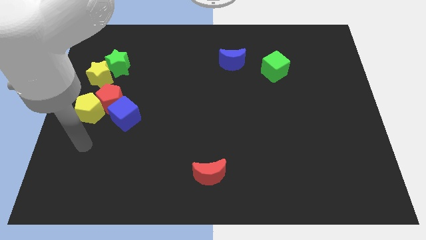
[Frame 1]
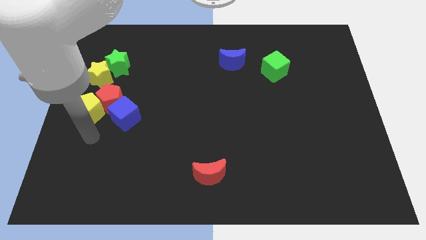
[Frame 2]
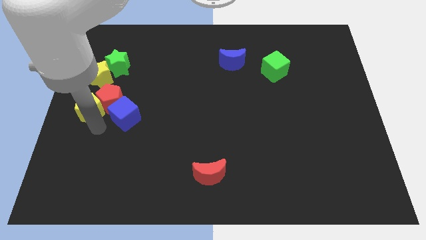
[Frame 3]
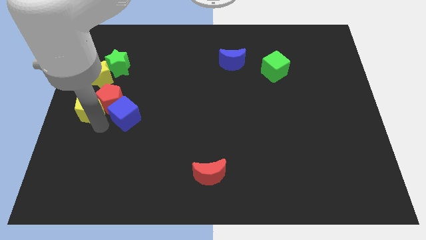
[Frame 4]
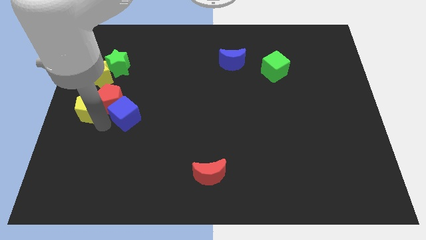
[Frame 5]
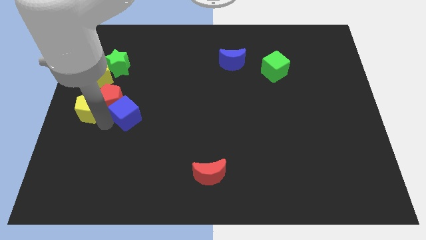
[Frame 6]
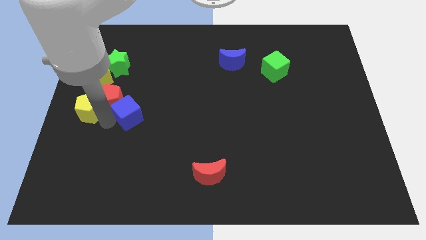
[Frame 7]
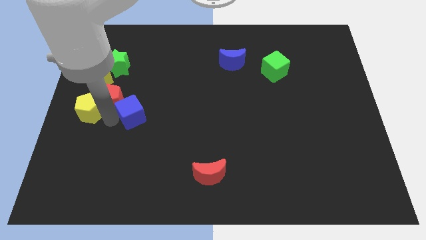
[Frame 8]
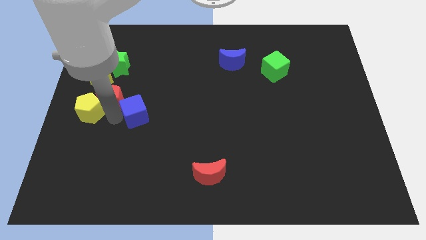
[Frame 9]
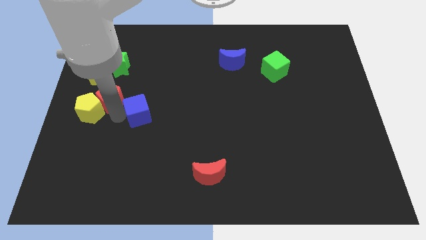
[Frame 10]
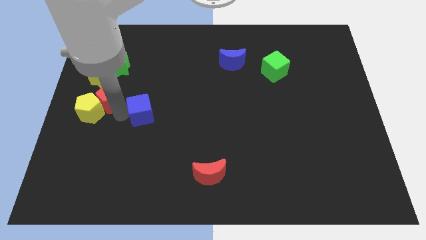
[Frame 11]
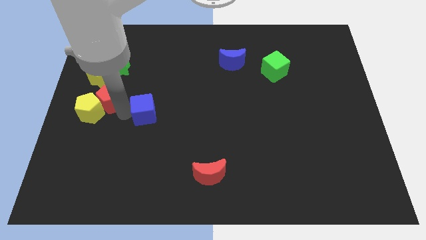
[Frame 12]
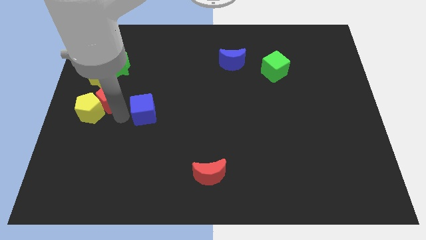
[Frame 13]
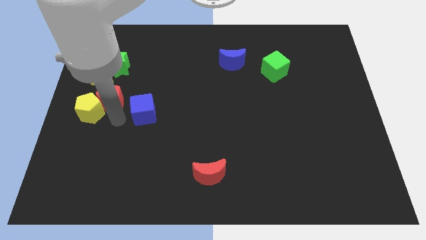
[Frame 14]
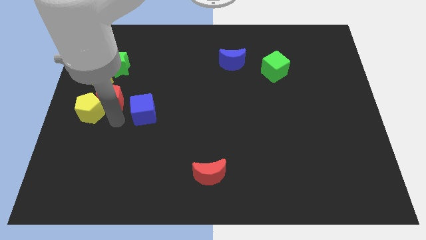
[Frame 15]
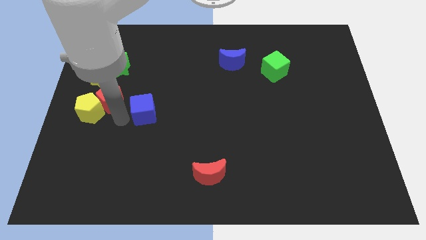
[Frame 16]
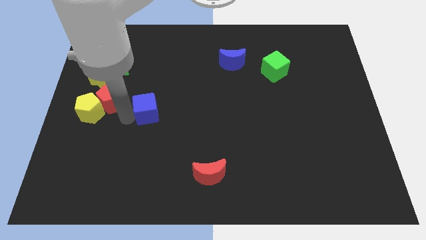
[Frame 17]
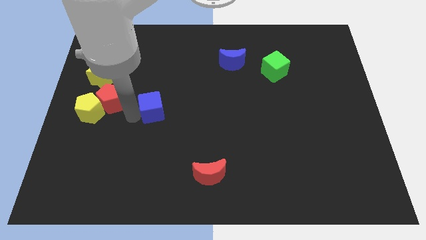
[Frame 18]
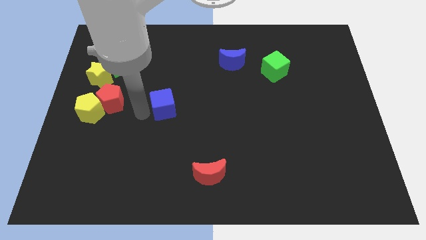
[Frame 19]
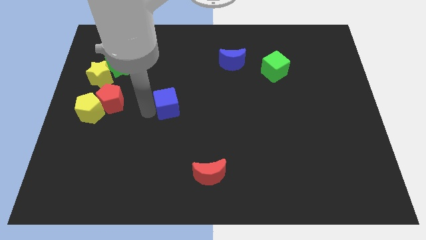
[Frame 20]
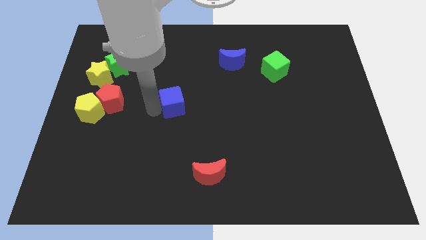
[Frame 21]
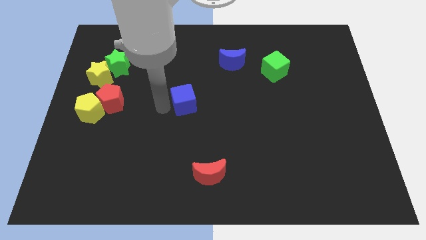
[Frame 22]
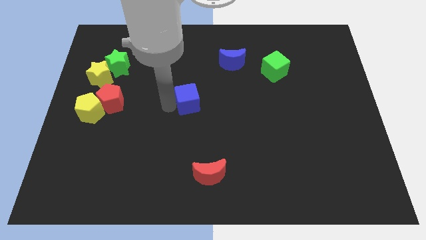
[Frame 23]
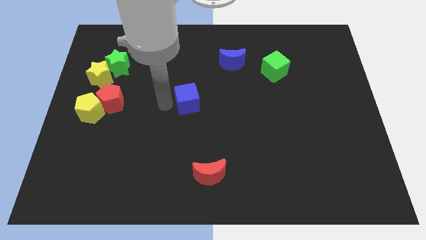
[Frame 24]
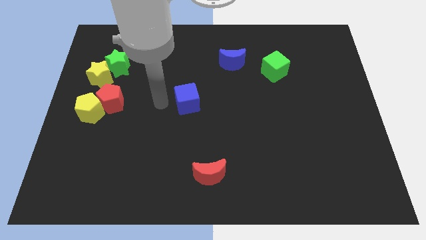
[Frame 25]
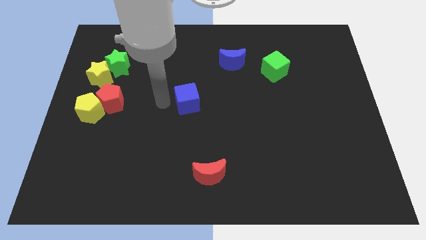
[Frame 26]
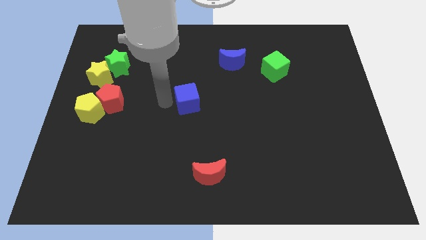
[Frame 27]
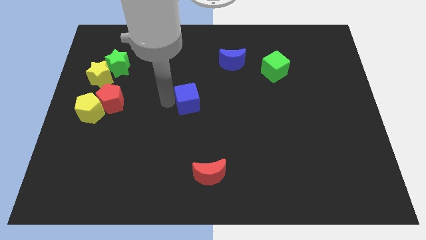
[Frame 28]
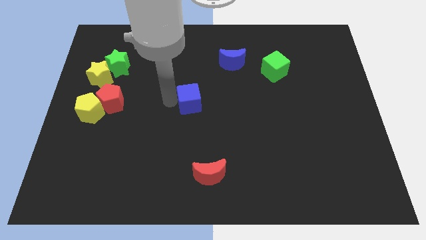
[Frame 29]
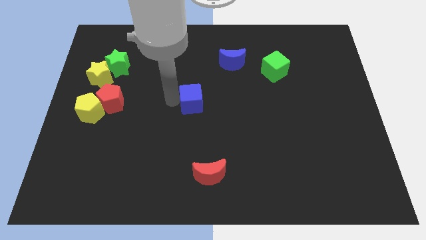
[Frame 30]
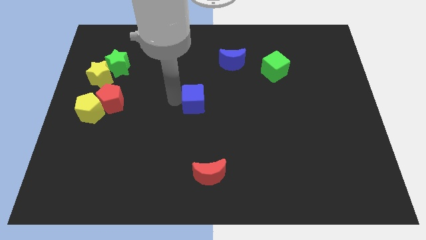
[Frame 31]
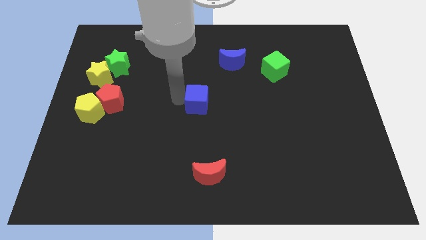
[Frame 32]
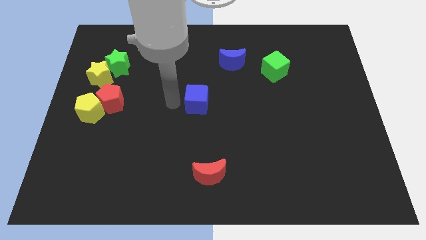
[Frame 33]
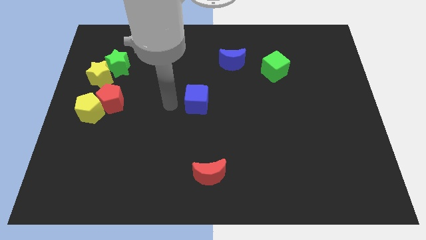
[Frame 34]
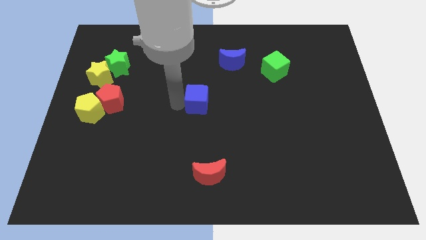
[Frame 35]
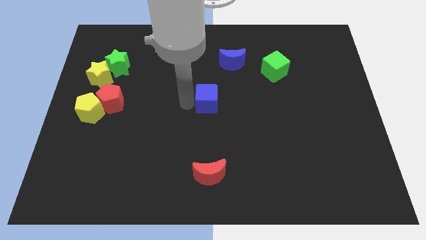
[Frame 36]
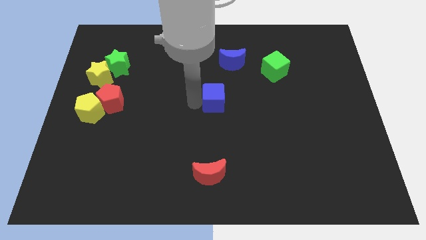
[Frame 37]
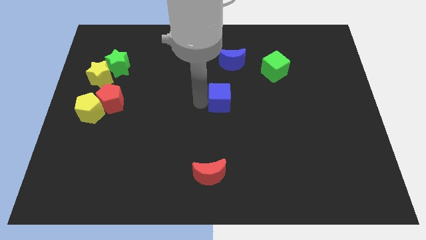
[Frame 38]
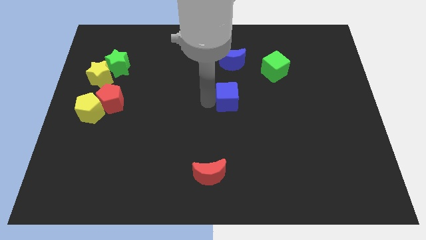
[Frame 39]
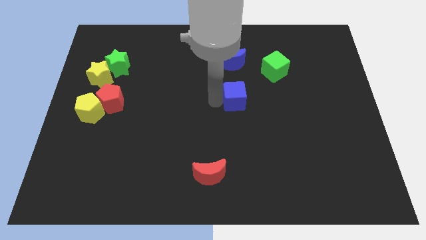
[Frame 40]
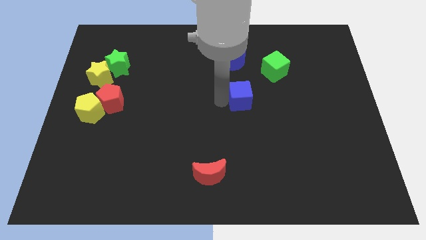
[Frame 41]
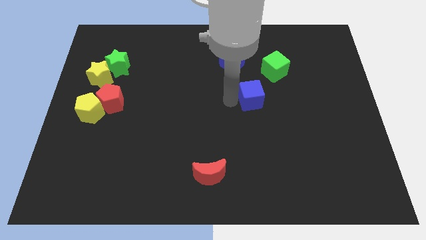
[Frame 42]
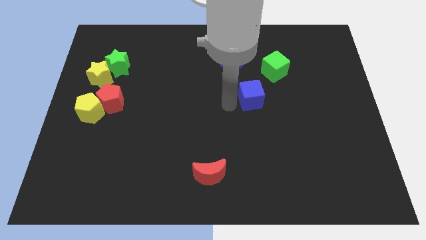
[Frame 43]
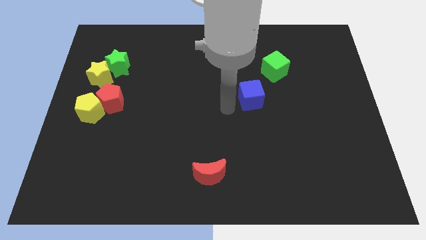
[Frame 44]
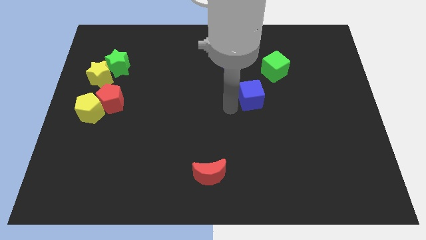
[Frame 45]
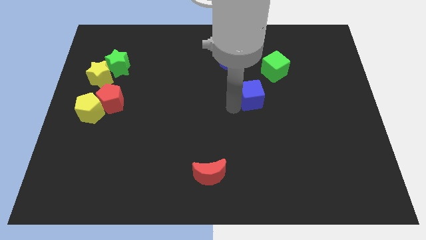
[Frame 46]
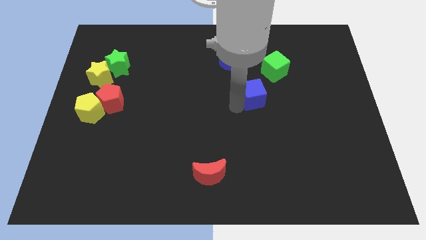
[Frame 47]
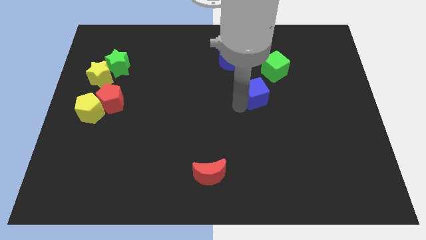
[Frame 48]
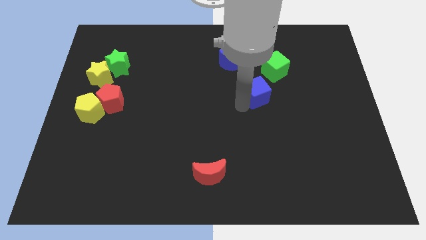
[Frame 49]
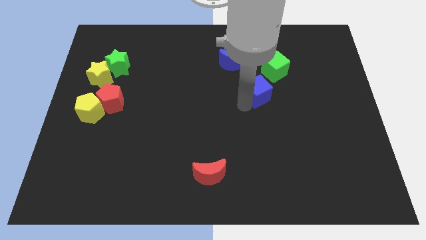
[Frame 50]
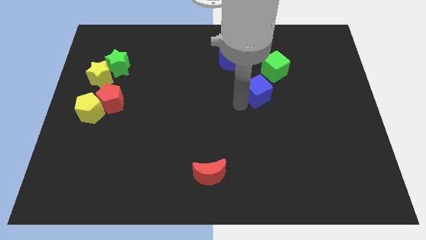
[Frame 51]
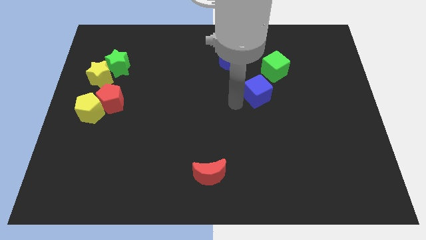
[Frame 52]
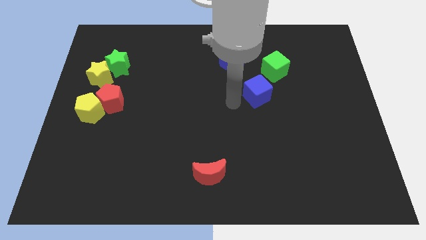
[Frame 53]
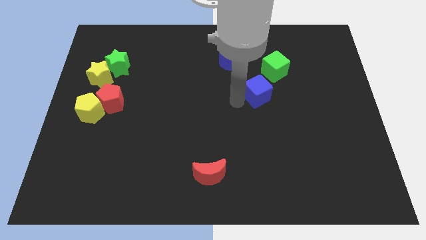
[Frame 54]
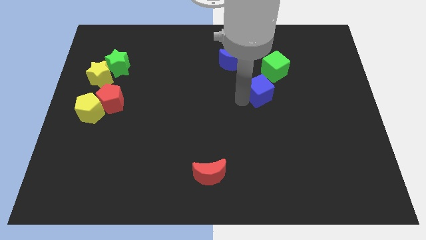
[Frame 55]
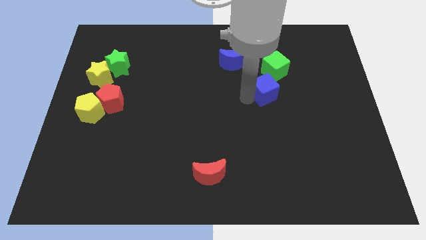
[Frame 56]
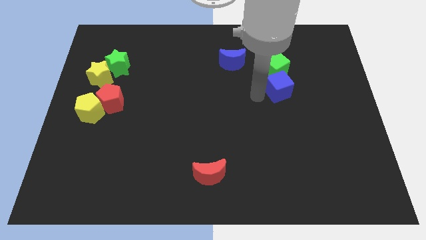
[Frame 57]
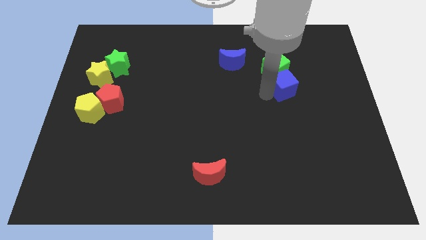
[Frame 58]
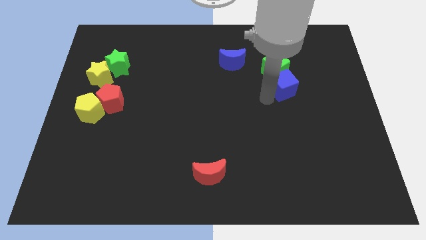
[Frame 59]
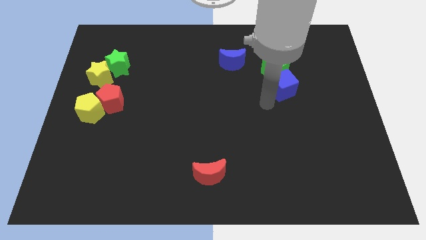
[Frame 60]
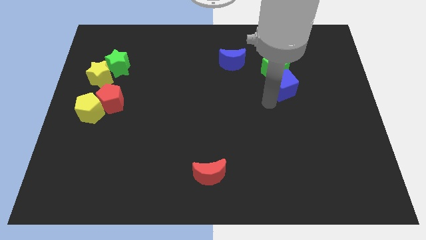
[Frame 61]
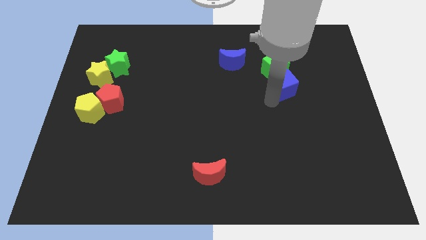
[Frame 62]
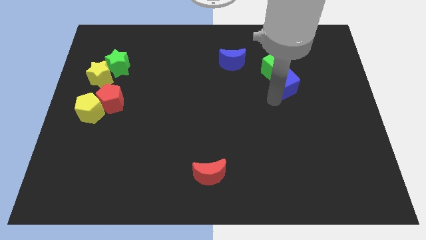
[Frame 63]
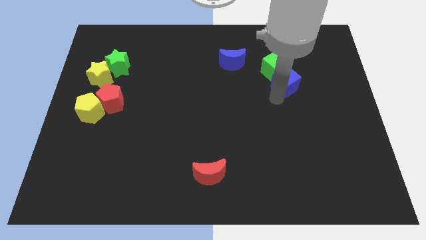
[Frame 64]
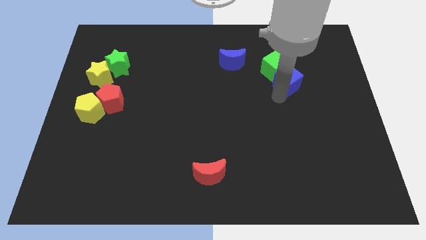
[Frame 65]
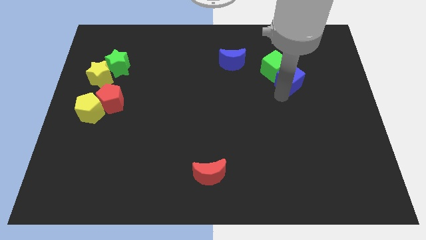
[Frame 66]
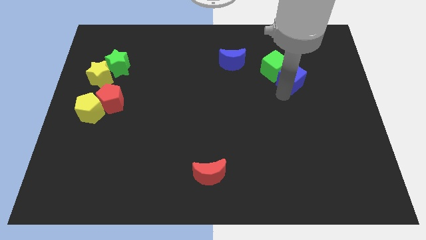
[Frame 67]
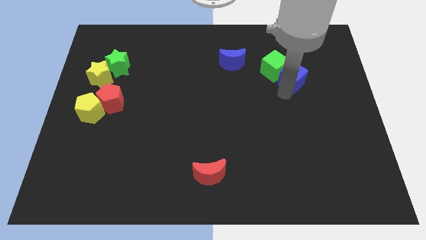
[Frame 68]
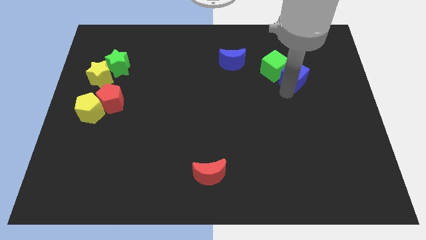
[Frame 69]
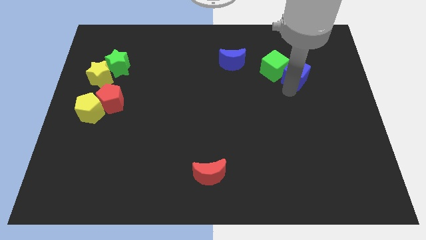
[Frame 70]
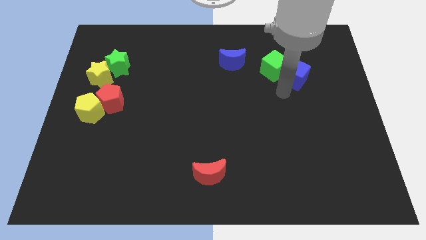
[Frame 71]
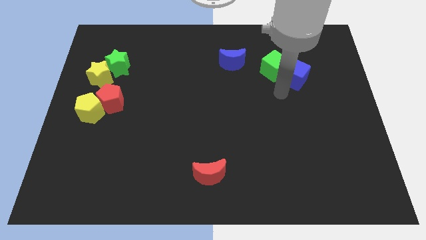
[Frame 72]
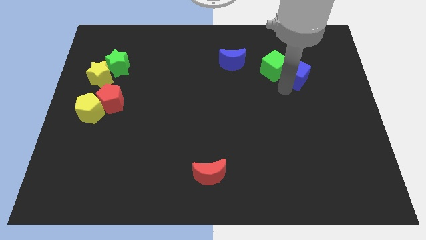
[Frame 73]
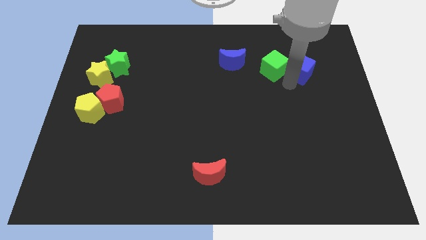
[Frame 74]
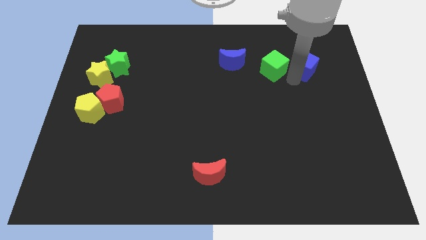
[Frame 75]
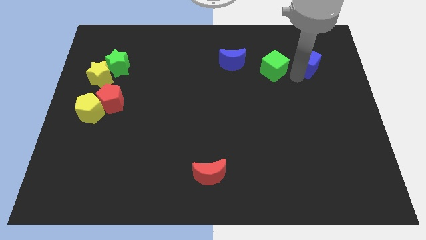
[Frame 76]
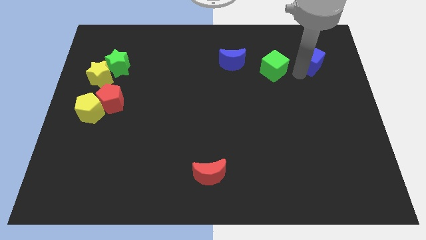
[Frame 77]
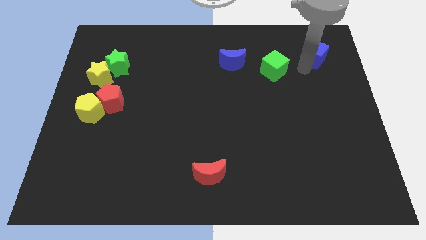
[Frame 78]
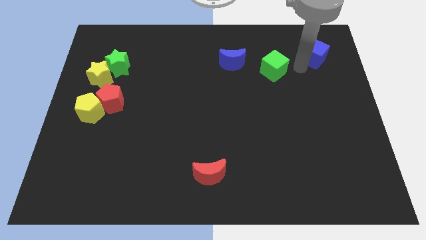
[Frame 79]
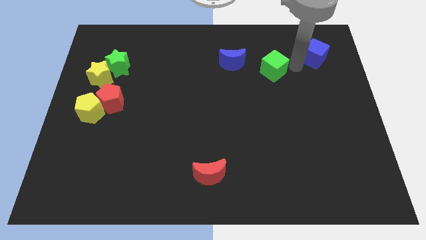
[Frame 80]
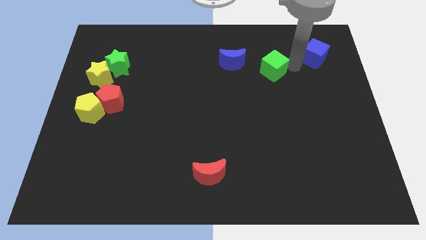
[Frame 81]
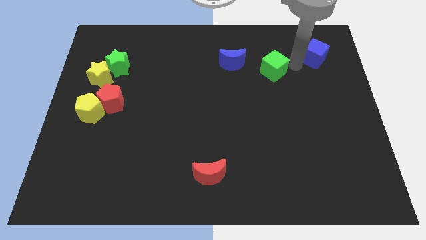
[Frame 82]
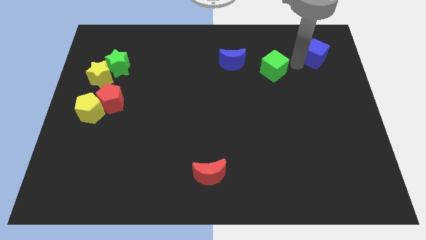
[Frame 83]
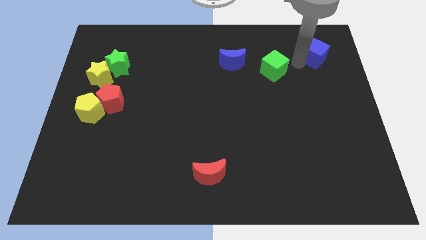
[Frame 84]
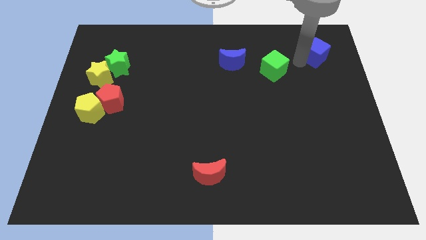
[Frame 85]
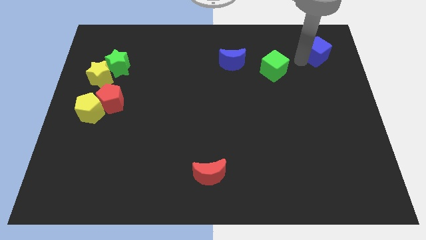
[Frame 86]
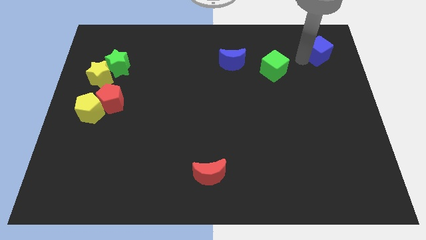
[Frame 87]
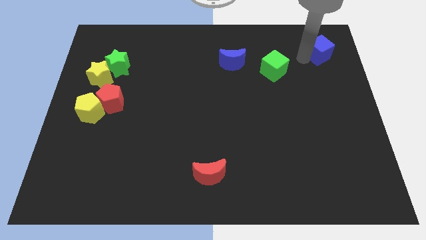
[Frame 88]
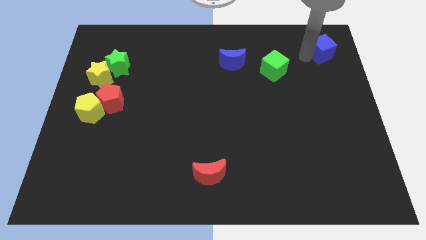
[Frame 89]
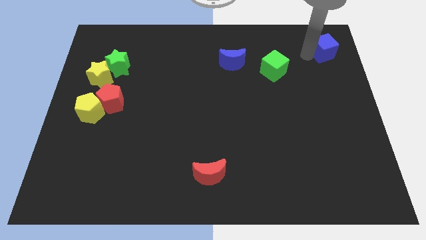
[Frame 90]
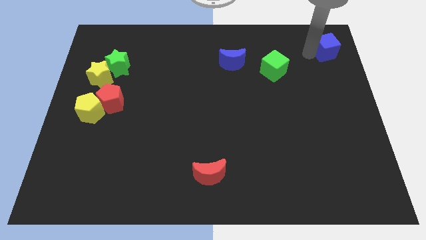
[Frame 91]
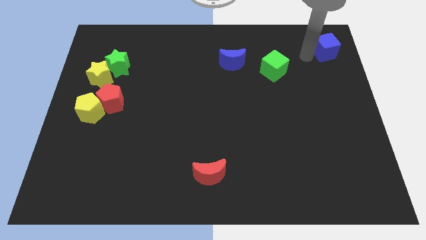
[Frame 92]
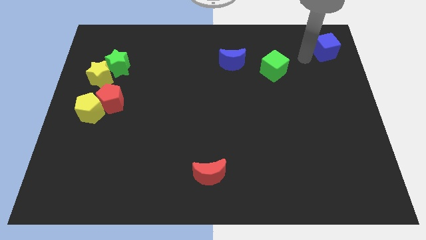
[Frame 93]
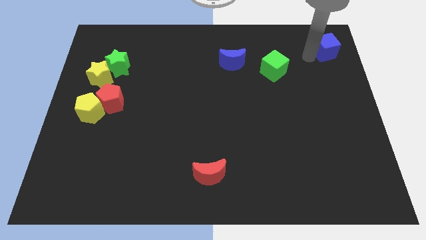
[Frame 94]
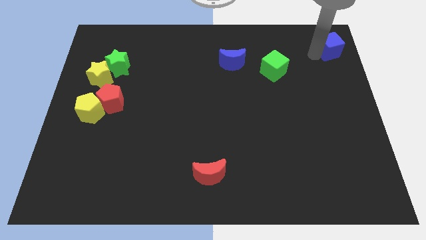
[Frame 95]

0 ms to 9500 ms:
move the blue cube to the upper right corner
